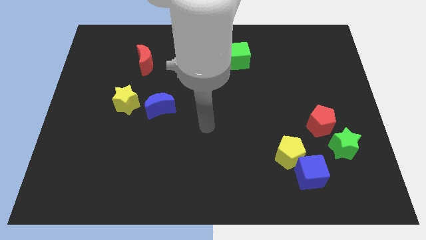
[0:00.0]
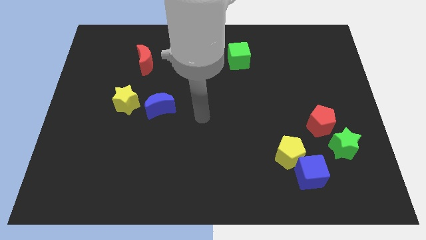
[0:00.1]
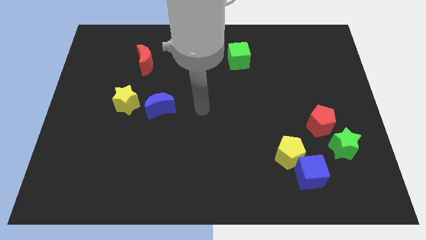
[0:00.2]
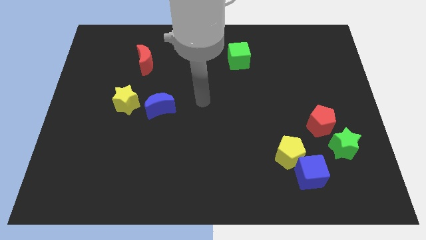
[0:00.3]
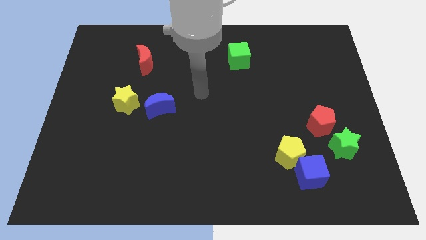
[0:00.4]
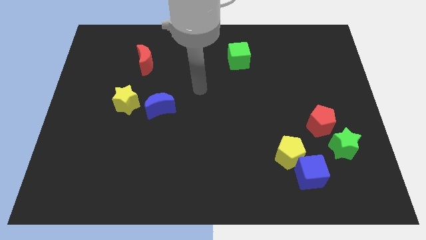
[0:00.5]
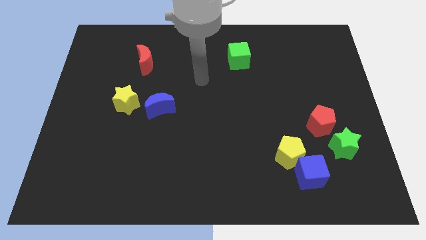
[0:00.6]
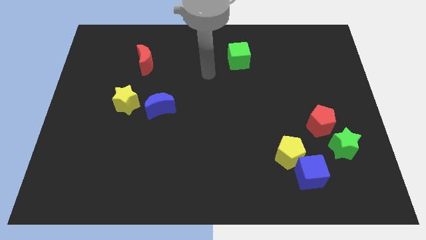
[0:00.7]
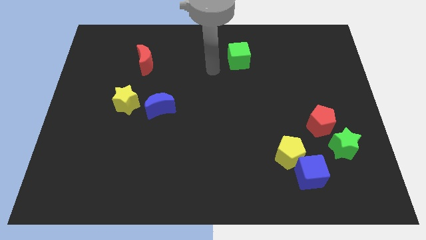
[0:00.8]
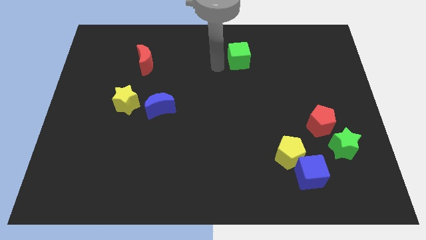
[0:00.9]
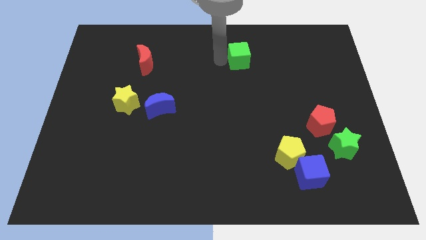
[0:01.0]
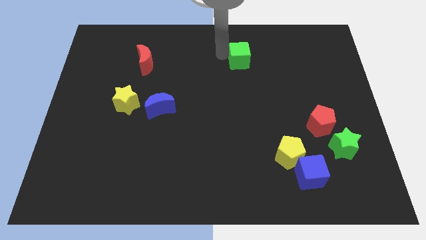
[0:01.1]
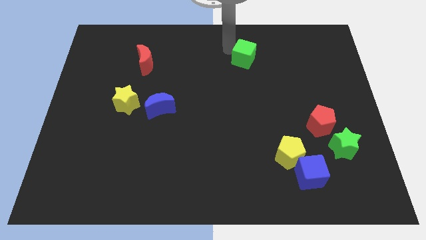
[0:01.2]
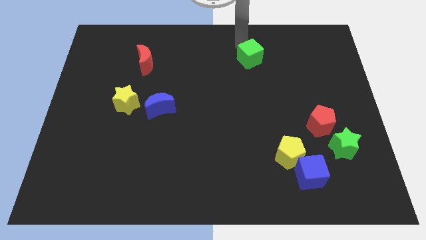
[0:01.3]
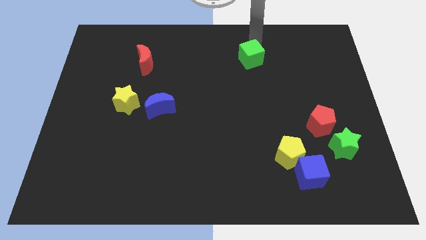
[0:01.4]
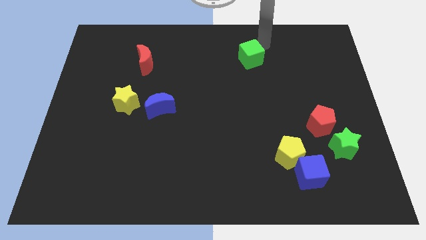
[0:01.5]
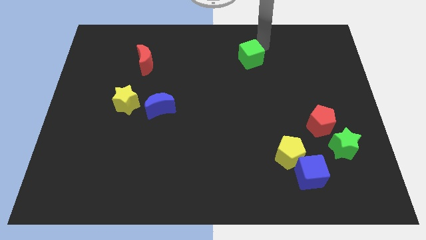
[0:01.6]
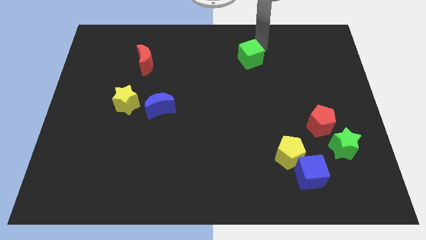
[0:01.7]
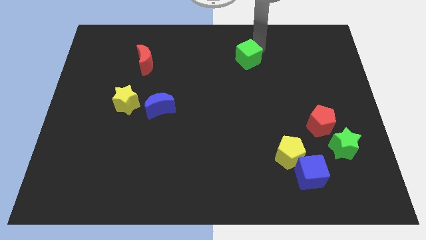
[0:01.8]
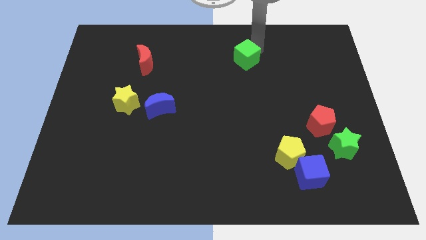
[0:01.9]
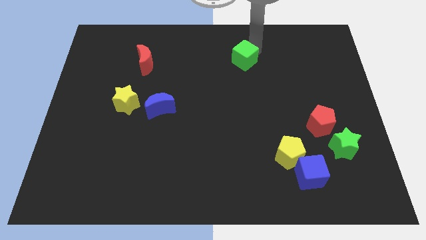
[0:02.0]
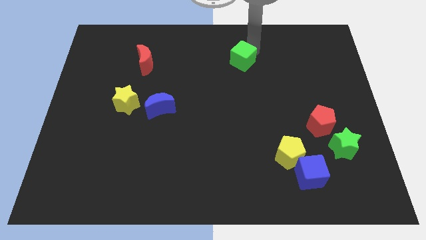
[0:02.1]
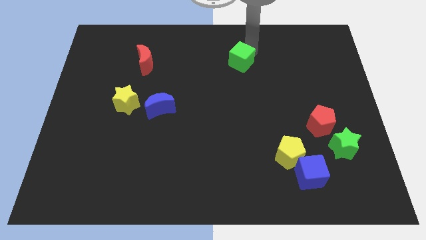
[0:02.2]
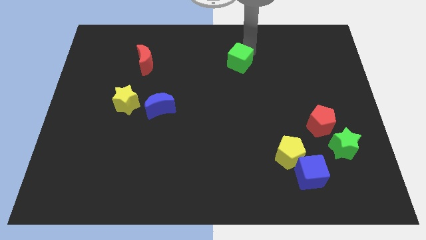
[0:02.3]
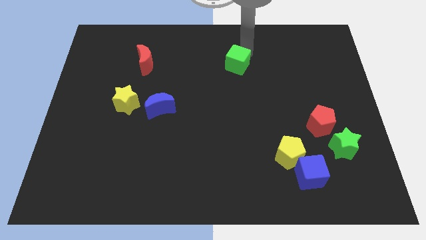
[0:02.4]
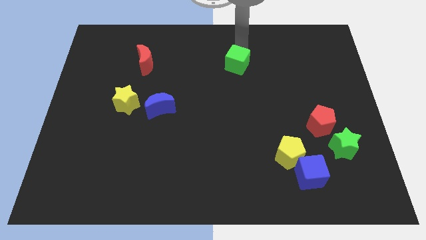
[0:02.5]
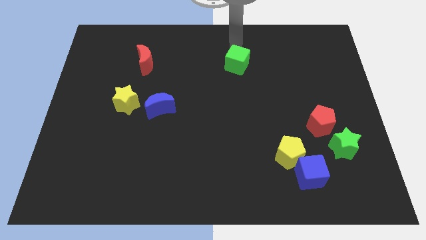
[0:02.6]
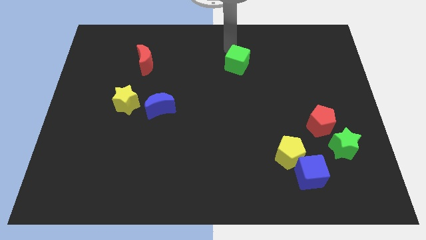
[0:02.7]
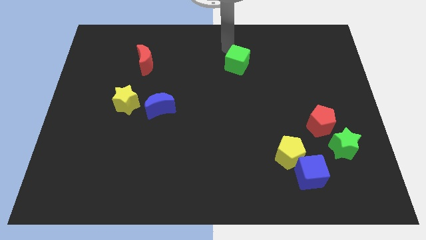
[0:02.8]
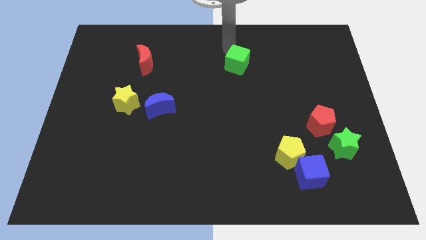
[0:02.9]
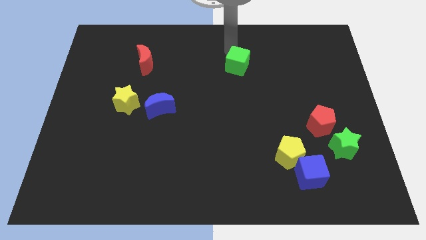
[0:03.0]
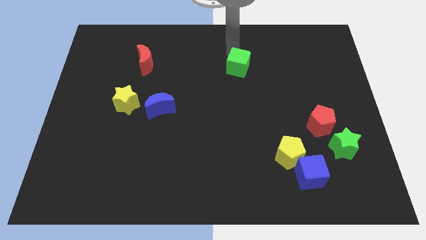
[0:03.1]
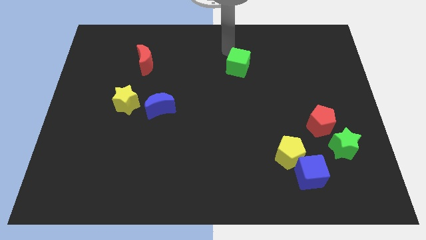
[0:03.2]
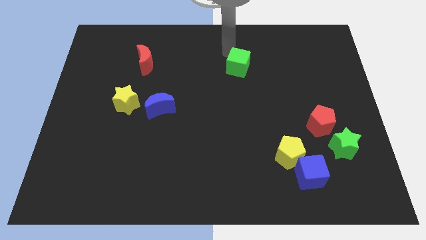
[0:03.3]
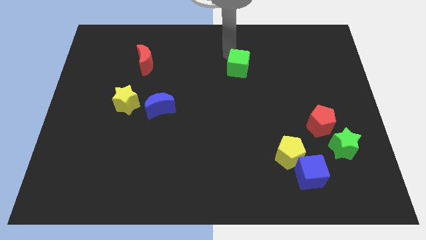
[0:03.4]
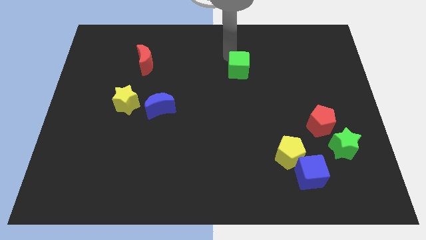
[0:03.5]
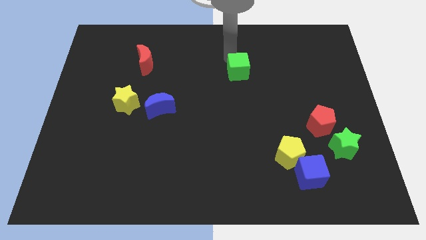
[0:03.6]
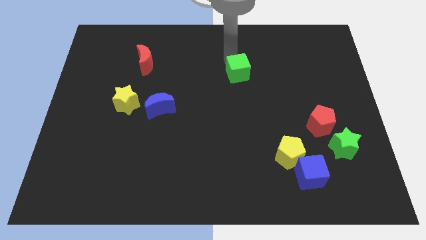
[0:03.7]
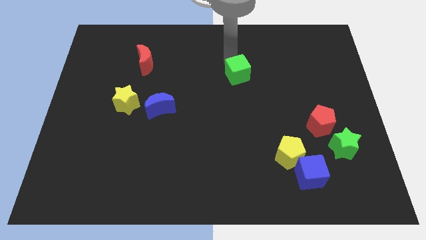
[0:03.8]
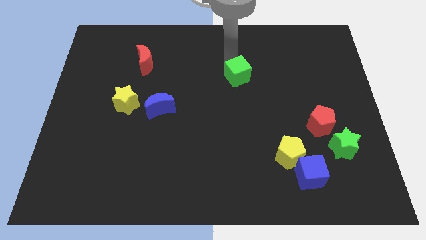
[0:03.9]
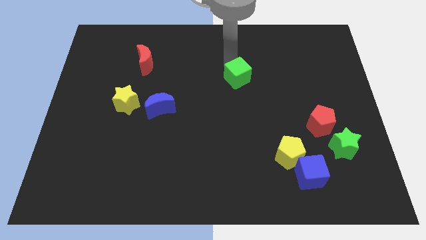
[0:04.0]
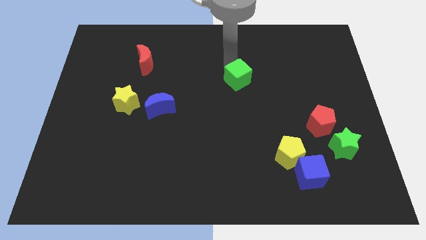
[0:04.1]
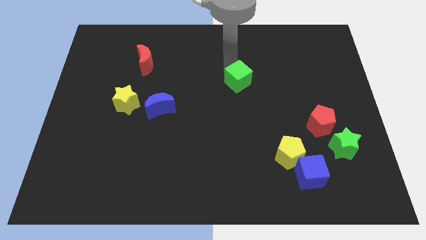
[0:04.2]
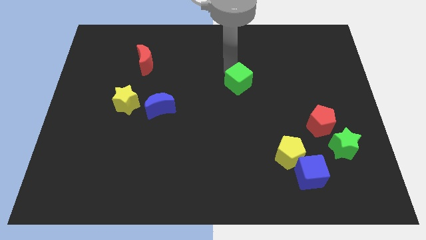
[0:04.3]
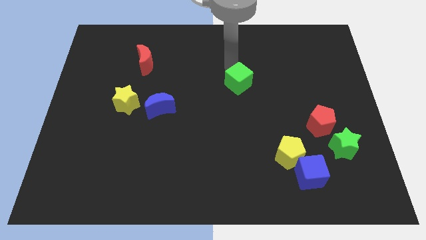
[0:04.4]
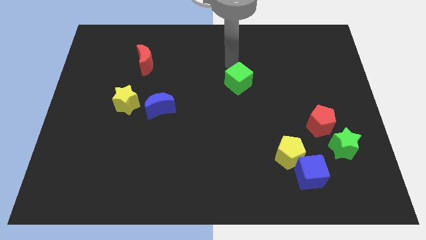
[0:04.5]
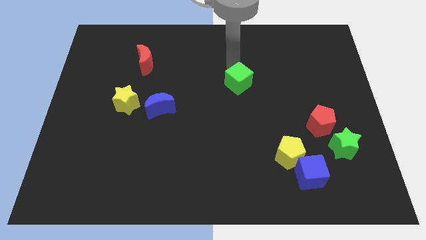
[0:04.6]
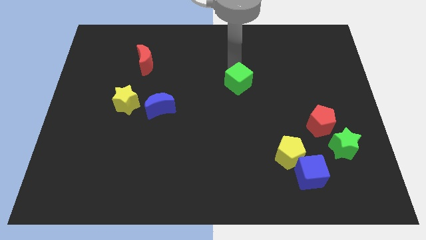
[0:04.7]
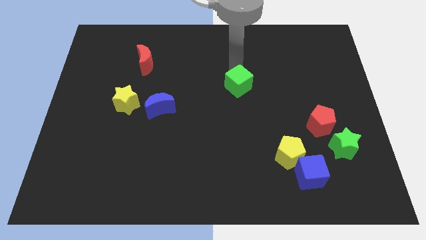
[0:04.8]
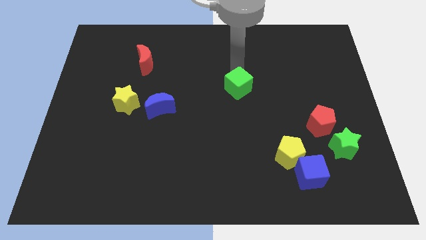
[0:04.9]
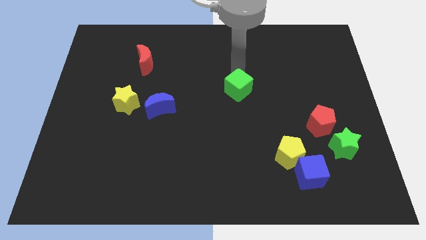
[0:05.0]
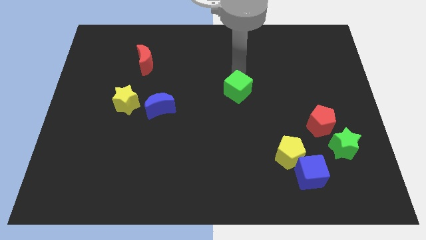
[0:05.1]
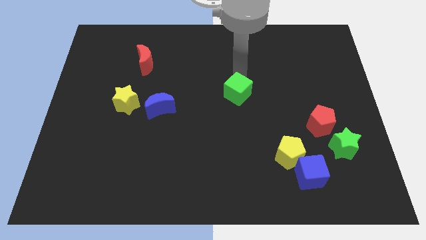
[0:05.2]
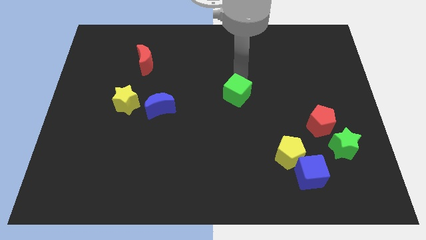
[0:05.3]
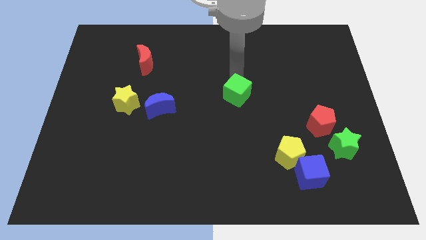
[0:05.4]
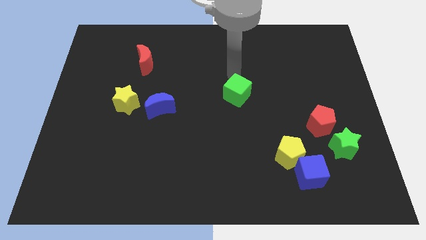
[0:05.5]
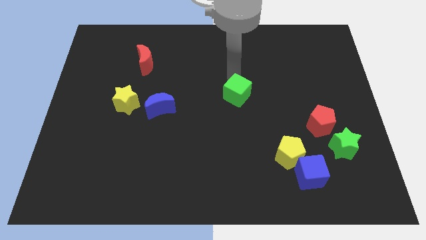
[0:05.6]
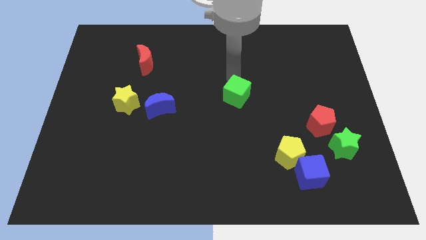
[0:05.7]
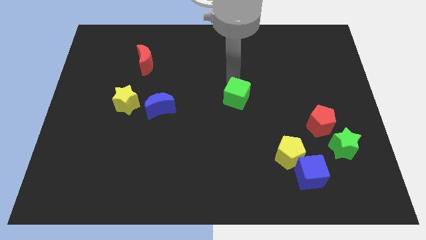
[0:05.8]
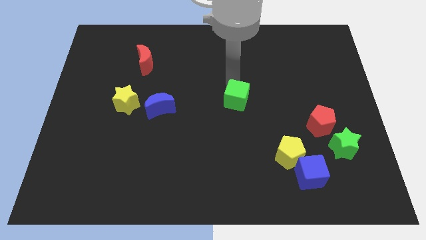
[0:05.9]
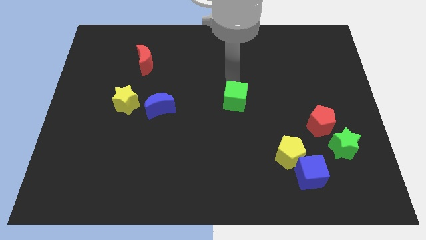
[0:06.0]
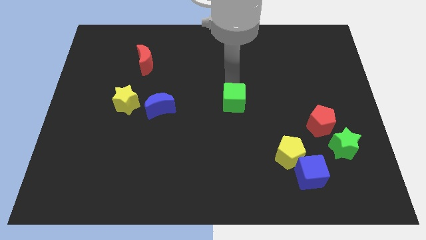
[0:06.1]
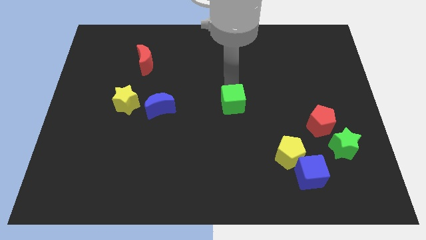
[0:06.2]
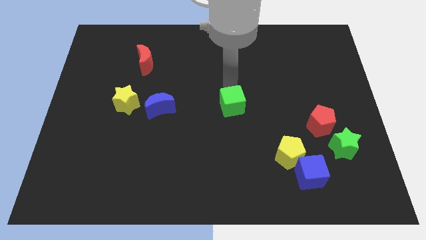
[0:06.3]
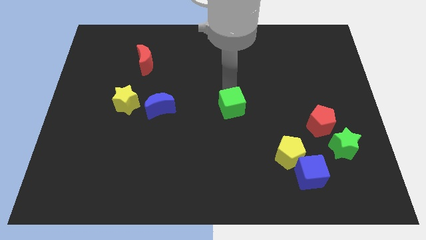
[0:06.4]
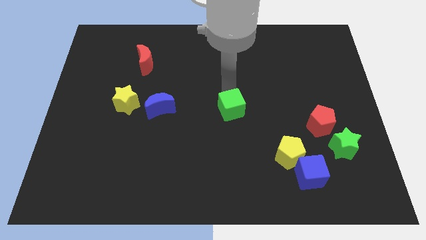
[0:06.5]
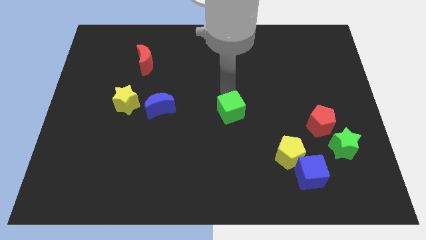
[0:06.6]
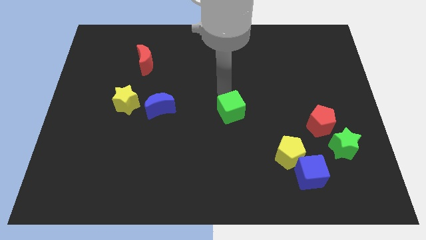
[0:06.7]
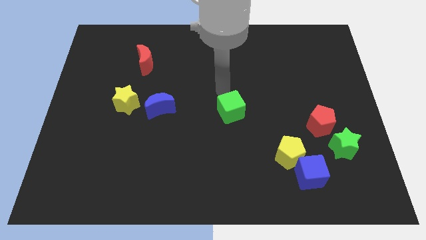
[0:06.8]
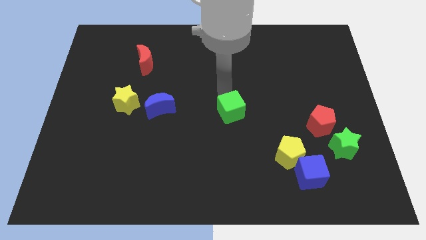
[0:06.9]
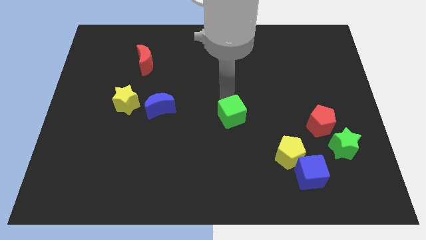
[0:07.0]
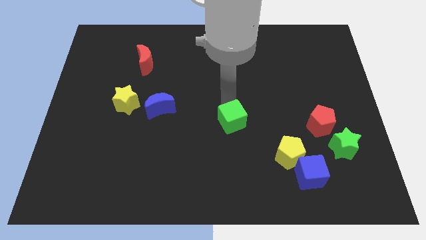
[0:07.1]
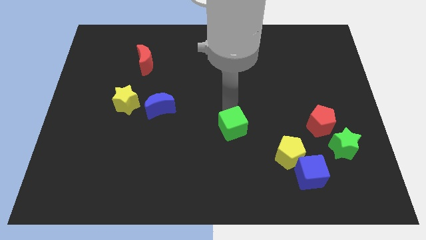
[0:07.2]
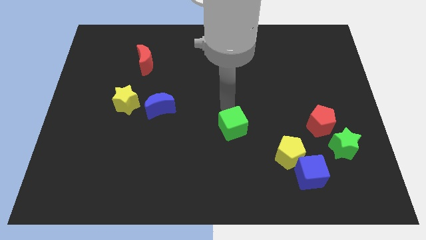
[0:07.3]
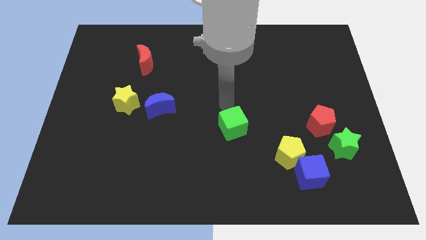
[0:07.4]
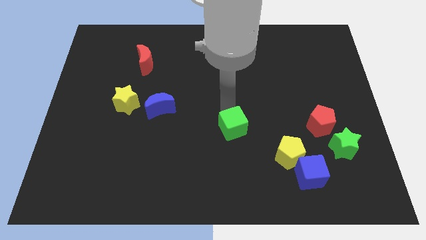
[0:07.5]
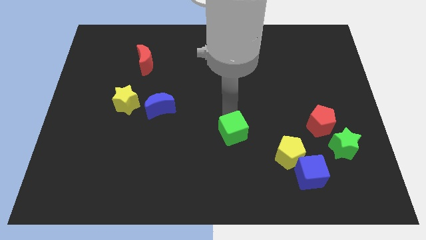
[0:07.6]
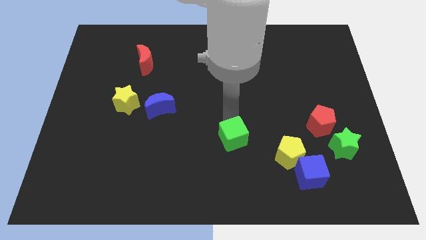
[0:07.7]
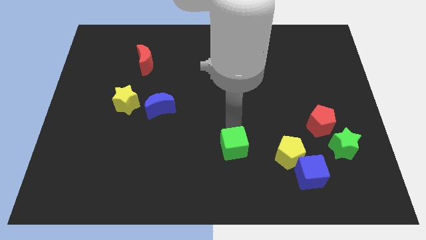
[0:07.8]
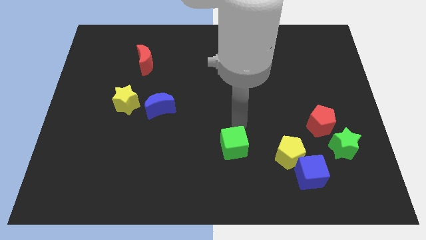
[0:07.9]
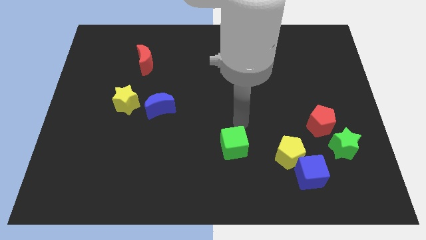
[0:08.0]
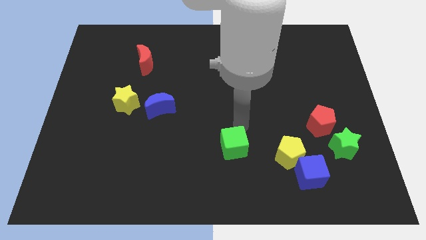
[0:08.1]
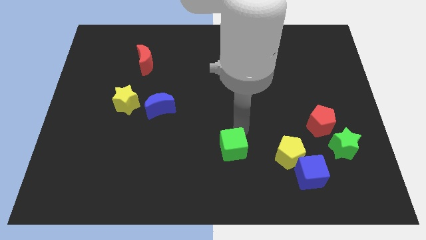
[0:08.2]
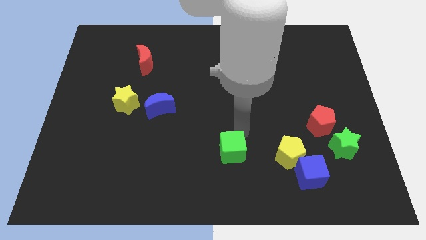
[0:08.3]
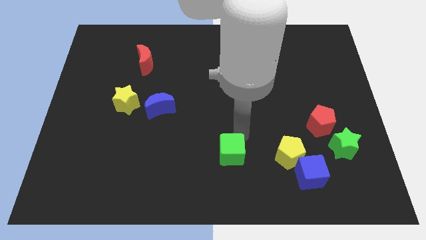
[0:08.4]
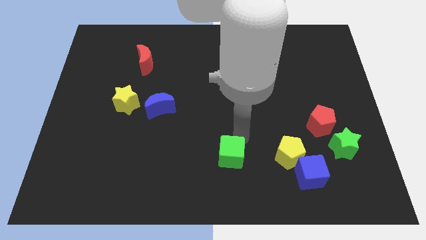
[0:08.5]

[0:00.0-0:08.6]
put the green cube to the bottom
